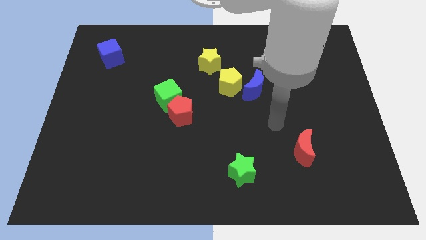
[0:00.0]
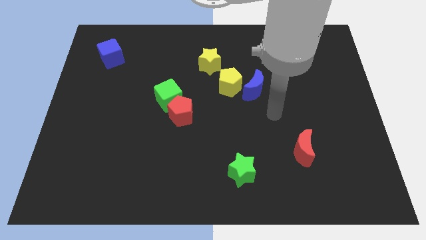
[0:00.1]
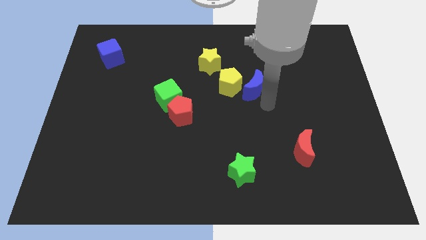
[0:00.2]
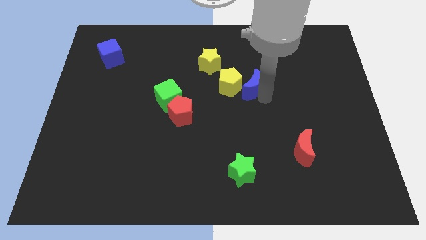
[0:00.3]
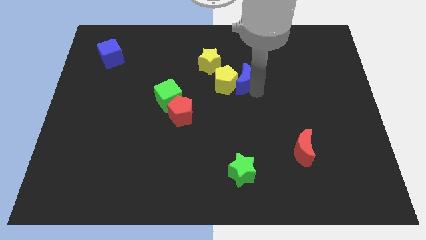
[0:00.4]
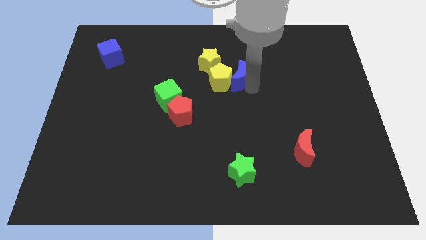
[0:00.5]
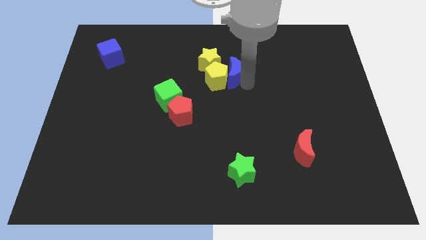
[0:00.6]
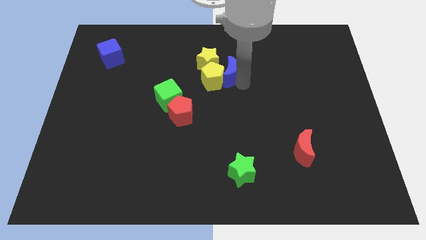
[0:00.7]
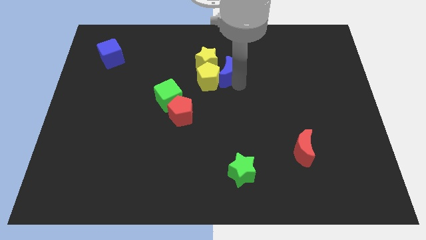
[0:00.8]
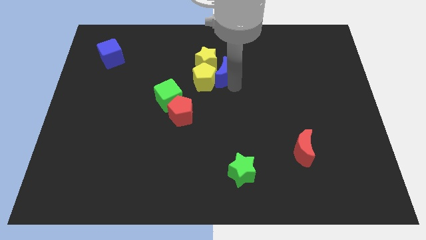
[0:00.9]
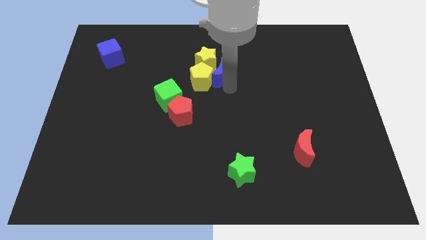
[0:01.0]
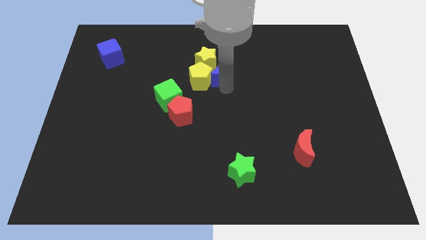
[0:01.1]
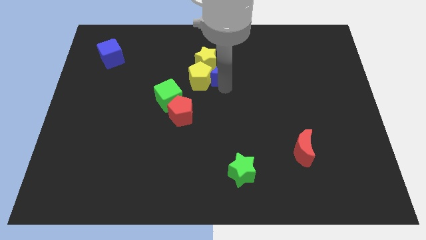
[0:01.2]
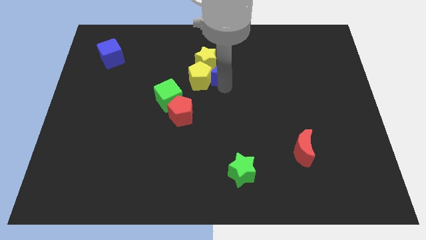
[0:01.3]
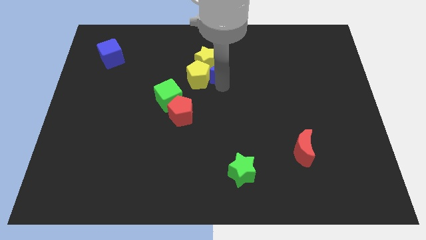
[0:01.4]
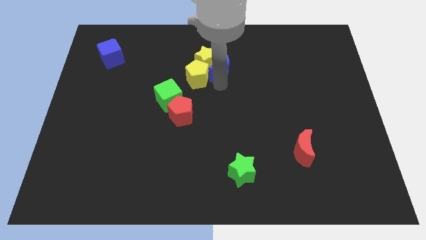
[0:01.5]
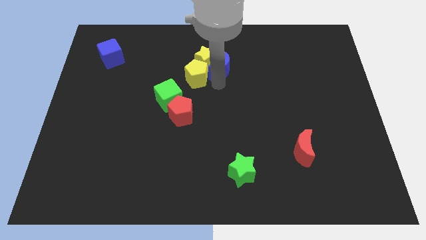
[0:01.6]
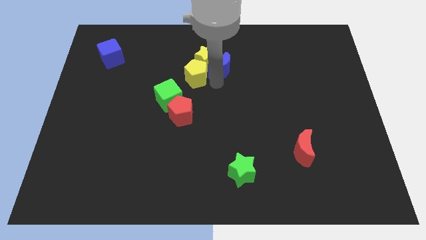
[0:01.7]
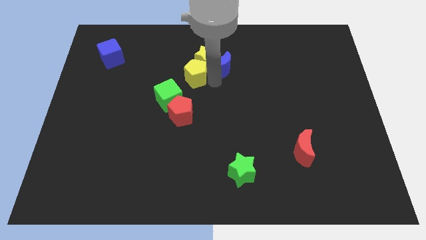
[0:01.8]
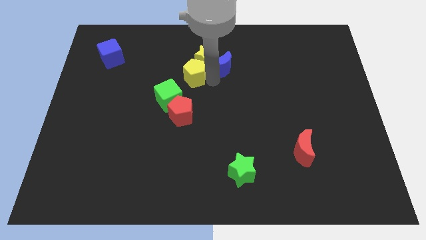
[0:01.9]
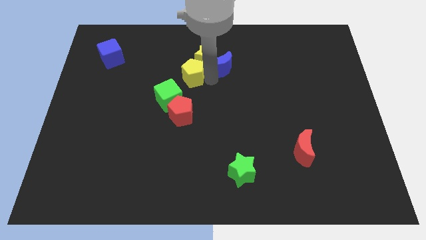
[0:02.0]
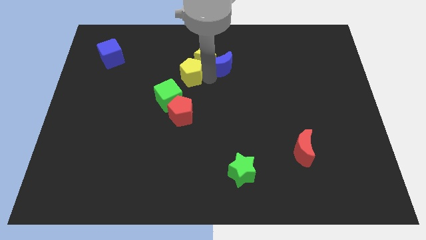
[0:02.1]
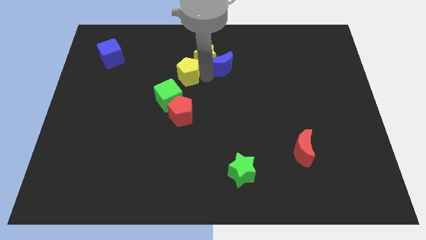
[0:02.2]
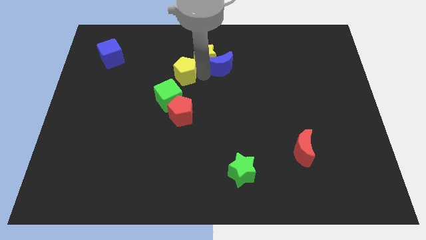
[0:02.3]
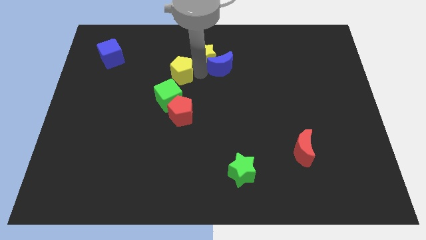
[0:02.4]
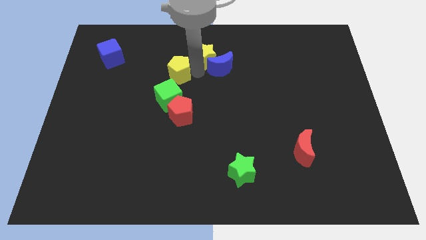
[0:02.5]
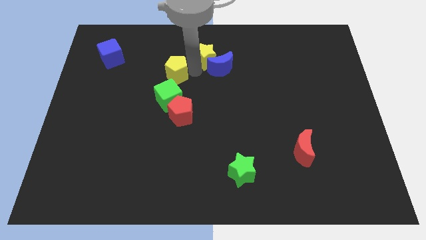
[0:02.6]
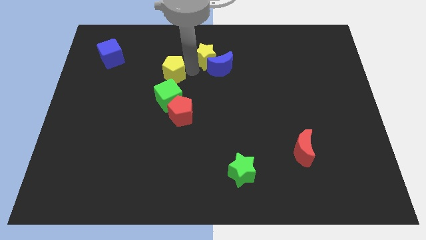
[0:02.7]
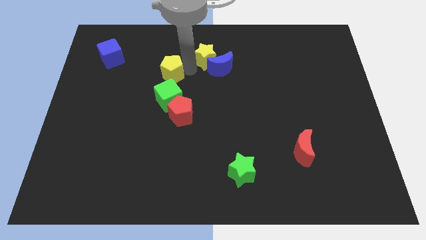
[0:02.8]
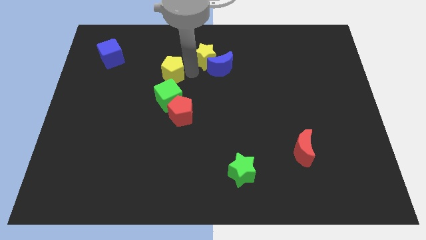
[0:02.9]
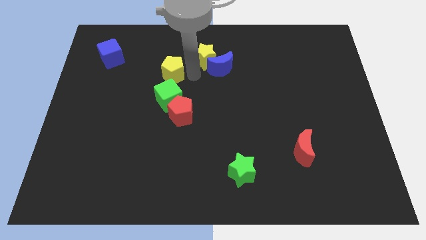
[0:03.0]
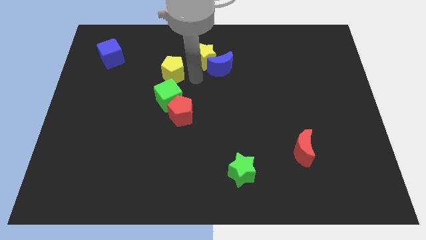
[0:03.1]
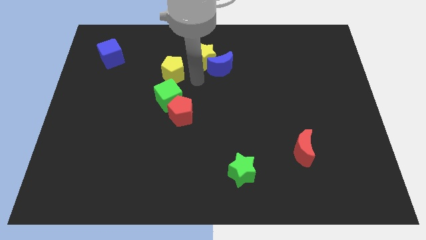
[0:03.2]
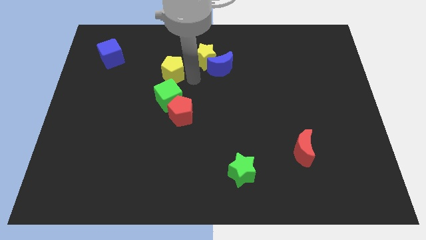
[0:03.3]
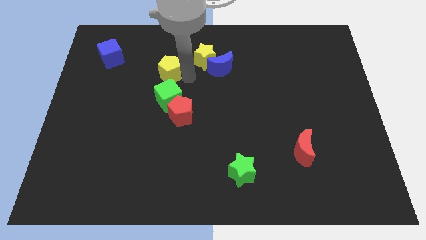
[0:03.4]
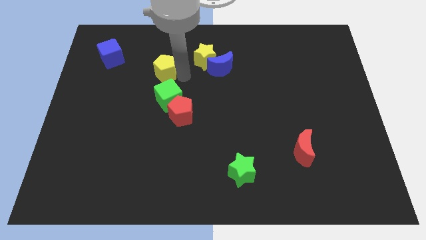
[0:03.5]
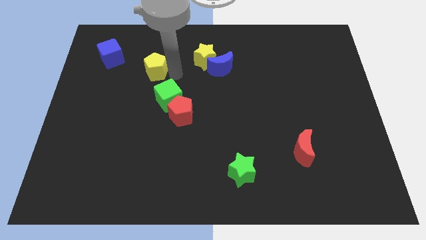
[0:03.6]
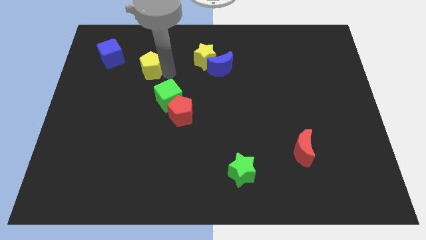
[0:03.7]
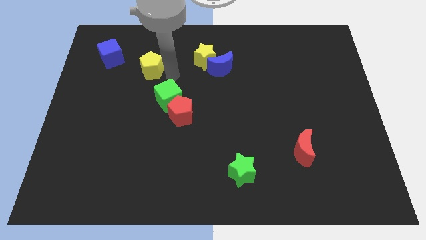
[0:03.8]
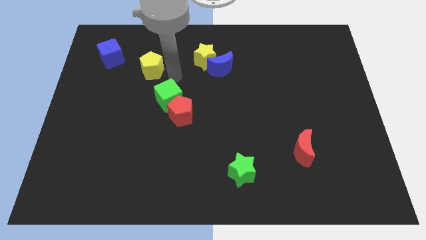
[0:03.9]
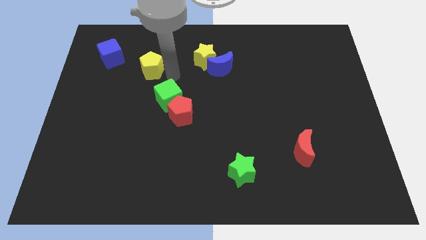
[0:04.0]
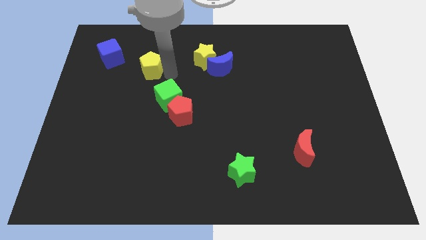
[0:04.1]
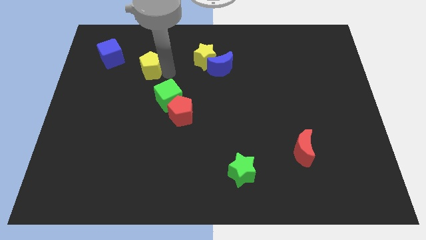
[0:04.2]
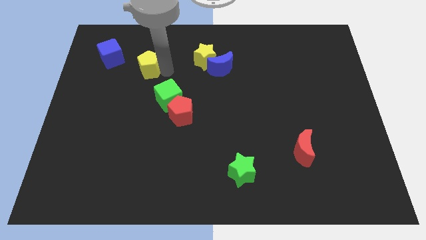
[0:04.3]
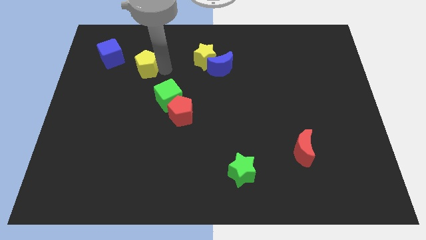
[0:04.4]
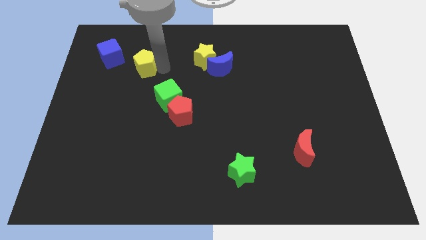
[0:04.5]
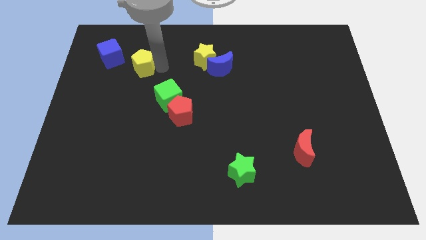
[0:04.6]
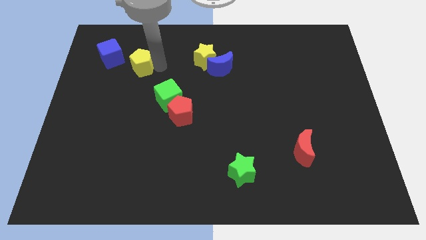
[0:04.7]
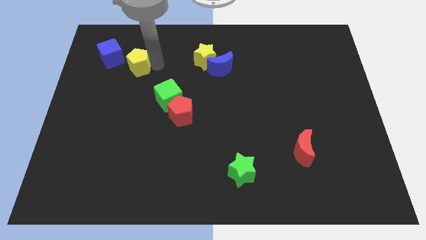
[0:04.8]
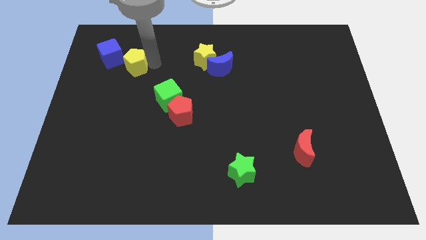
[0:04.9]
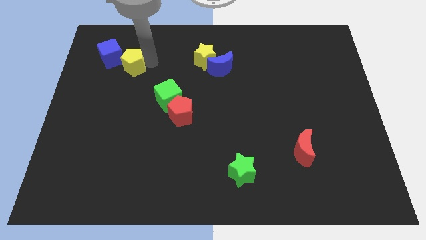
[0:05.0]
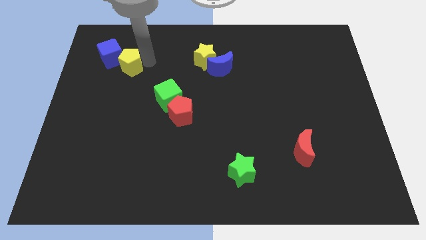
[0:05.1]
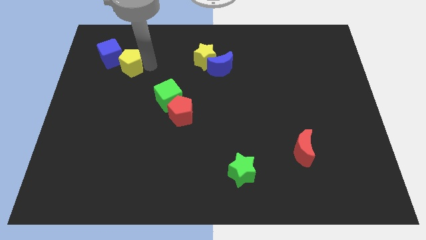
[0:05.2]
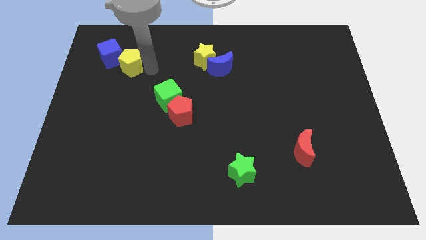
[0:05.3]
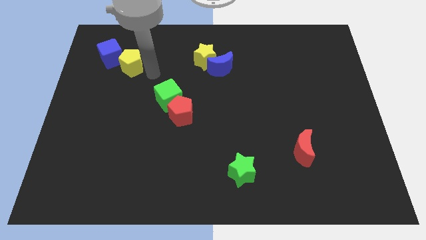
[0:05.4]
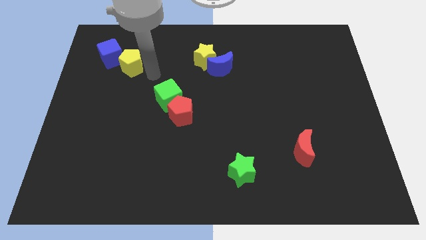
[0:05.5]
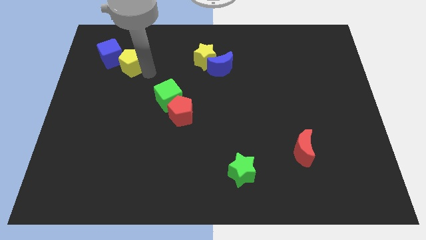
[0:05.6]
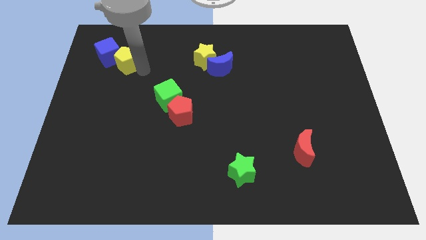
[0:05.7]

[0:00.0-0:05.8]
push the yellow pentagon close to the blue cube

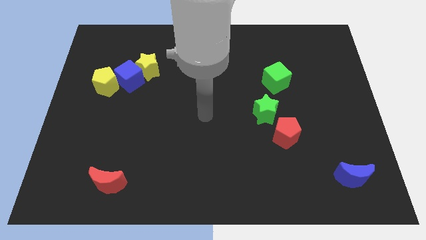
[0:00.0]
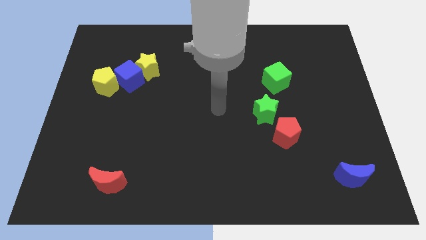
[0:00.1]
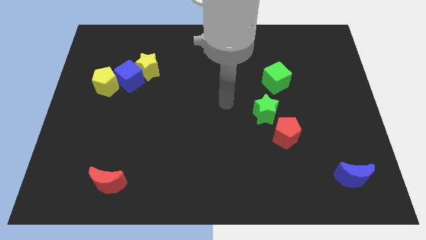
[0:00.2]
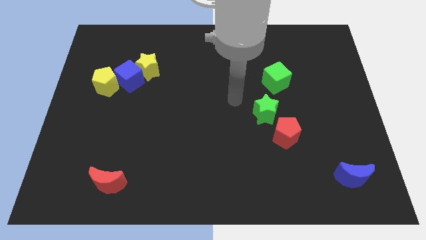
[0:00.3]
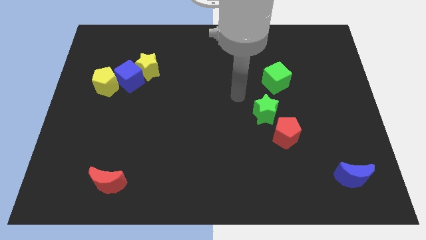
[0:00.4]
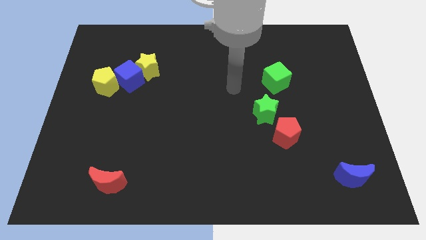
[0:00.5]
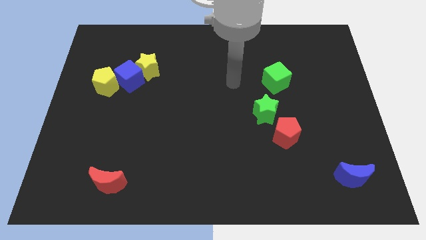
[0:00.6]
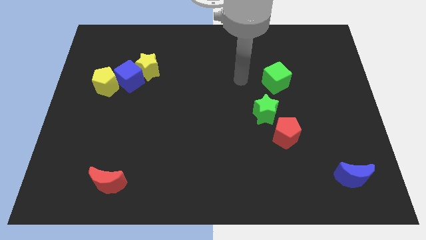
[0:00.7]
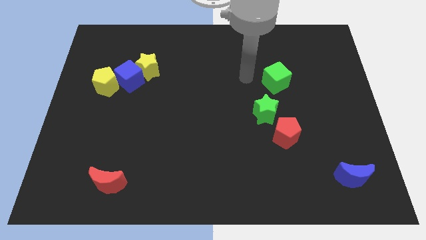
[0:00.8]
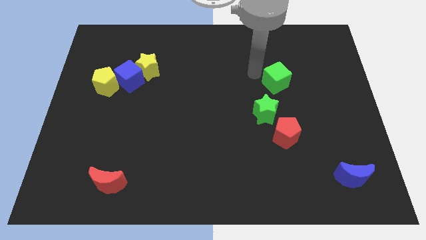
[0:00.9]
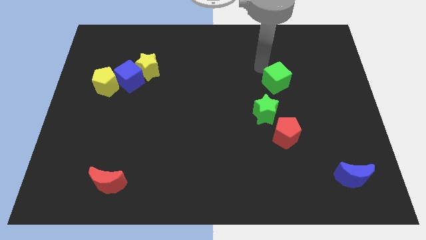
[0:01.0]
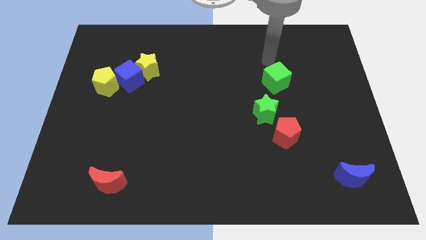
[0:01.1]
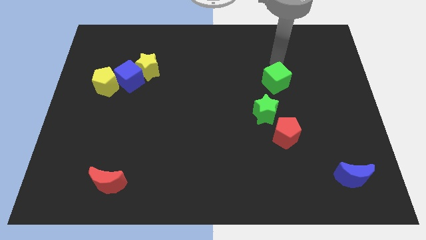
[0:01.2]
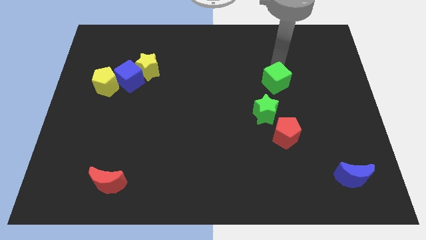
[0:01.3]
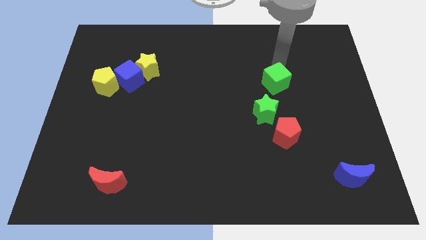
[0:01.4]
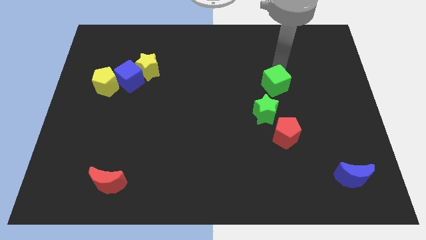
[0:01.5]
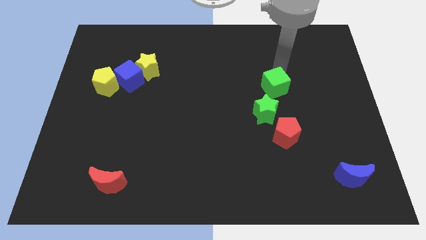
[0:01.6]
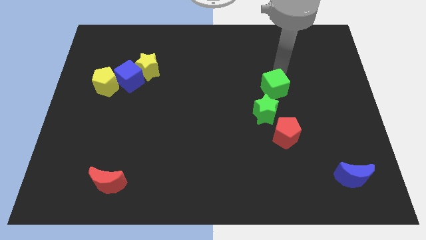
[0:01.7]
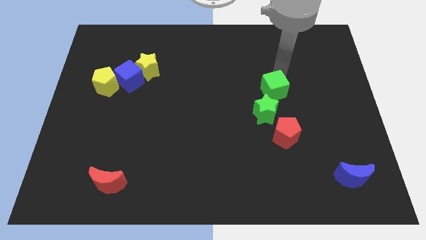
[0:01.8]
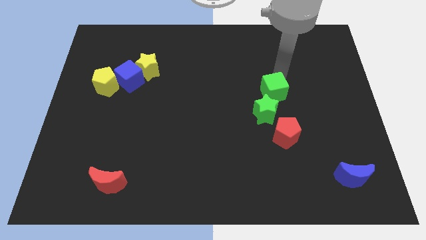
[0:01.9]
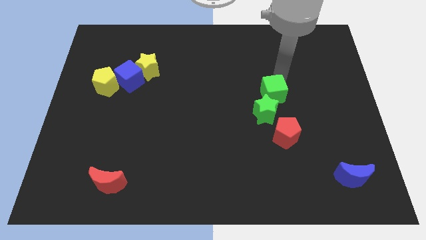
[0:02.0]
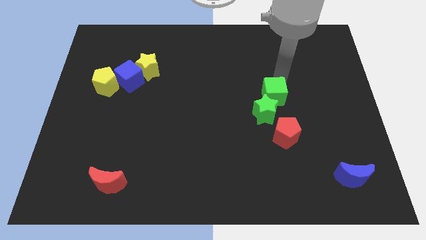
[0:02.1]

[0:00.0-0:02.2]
put the green cube close to the green star
